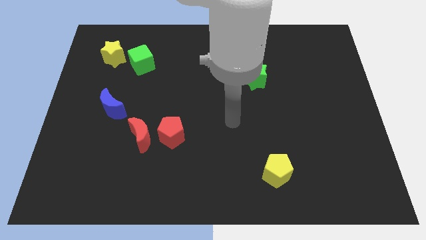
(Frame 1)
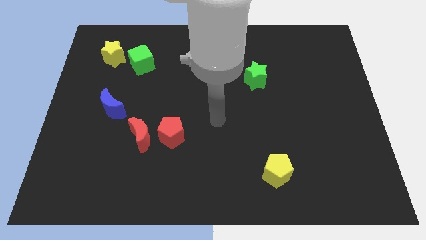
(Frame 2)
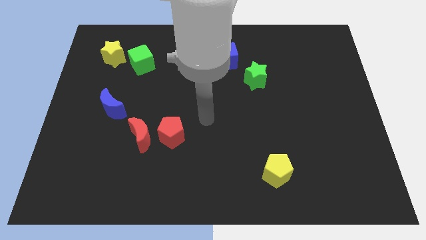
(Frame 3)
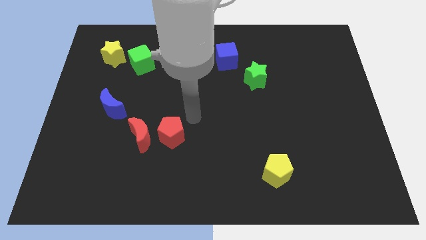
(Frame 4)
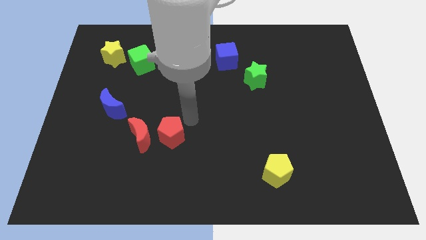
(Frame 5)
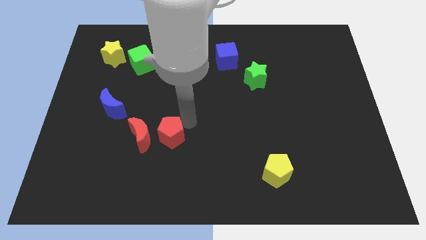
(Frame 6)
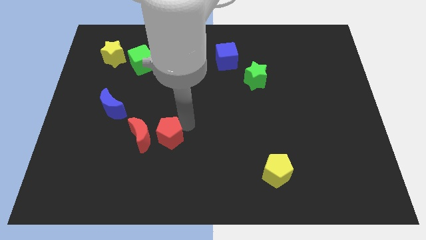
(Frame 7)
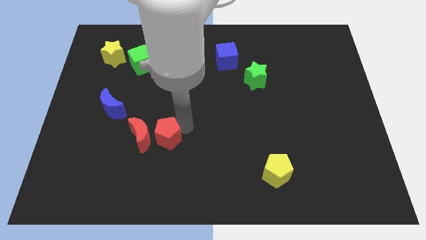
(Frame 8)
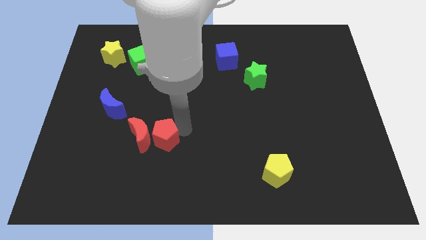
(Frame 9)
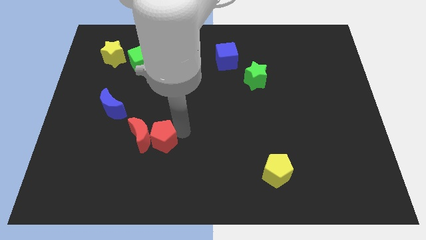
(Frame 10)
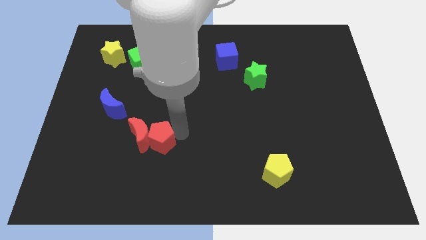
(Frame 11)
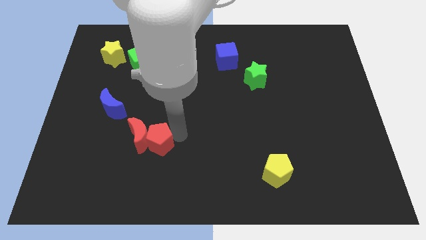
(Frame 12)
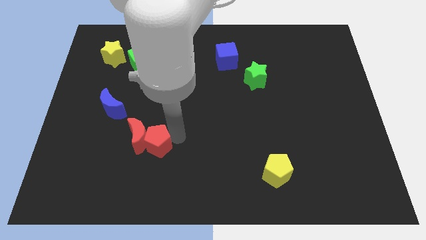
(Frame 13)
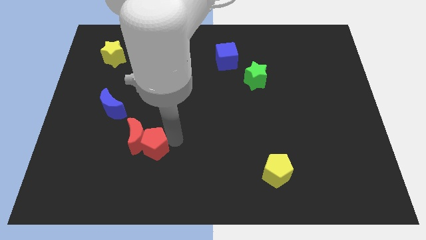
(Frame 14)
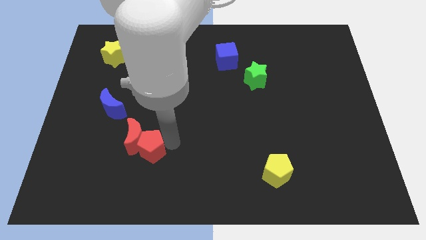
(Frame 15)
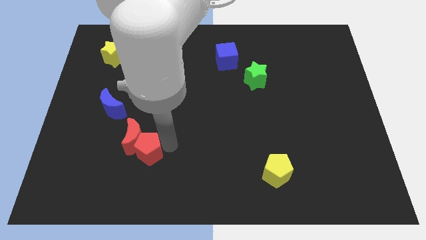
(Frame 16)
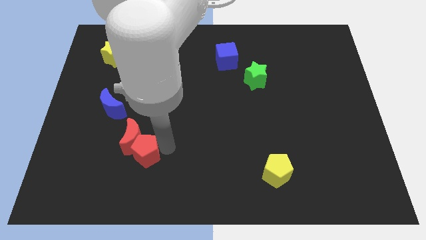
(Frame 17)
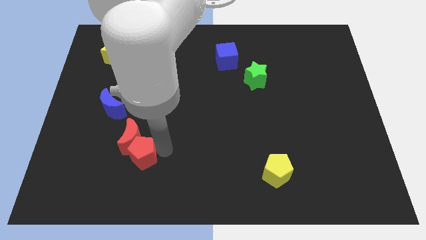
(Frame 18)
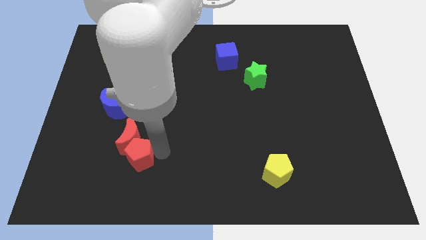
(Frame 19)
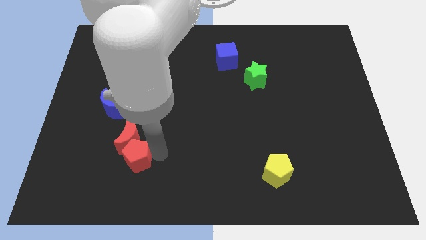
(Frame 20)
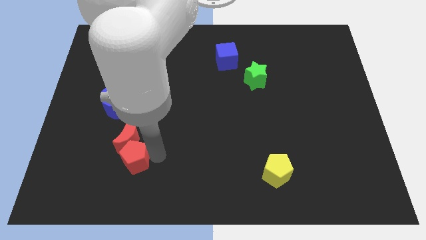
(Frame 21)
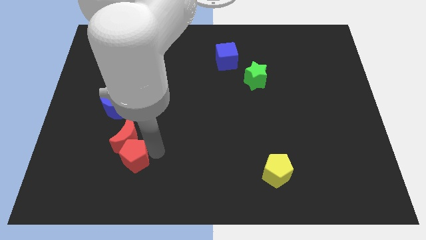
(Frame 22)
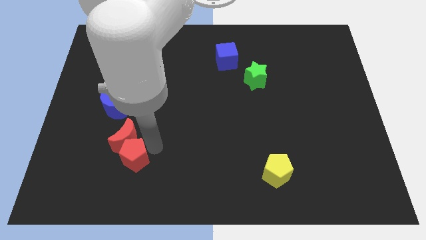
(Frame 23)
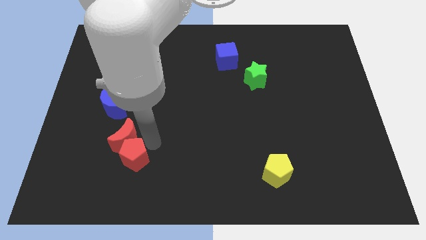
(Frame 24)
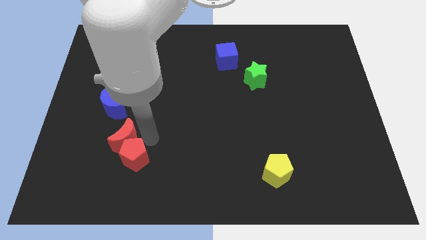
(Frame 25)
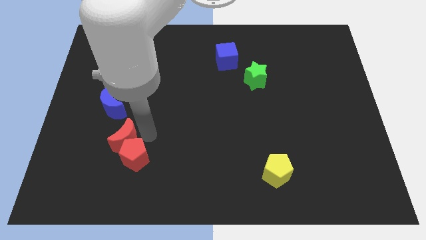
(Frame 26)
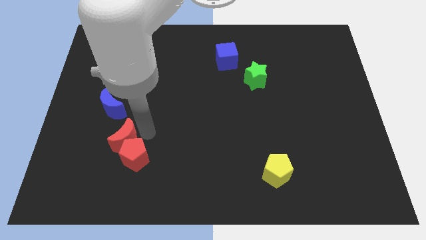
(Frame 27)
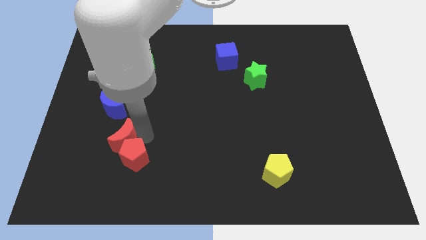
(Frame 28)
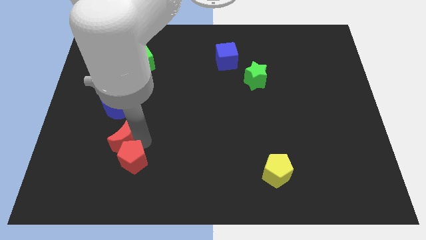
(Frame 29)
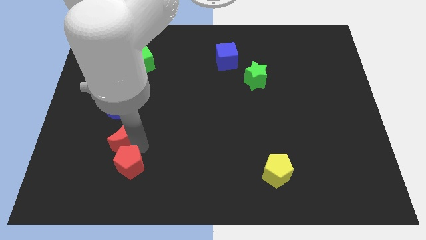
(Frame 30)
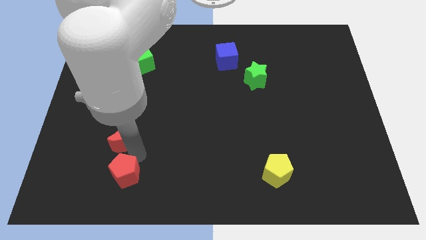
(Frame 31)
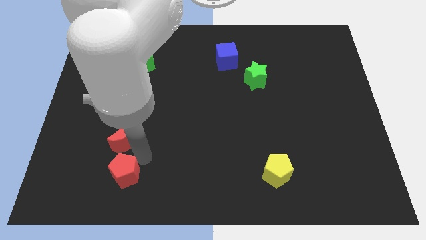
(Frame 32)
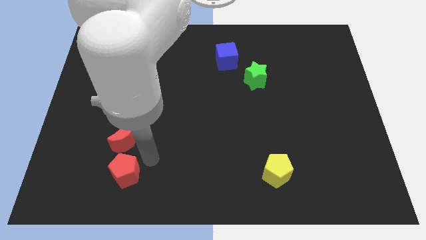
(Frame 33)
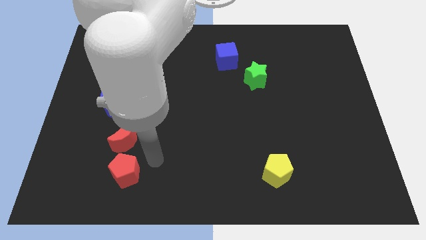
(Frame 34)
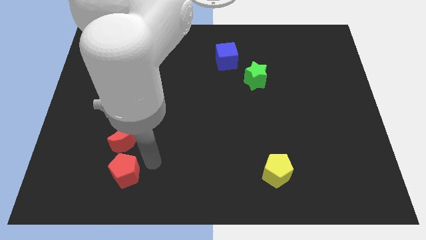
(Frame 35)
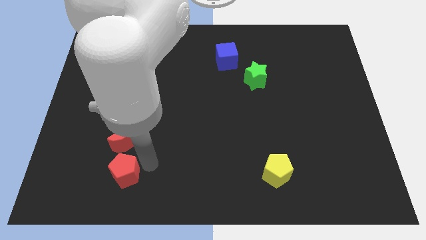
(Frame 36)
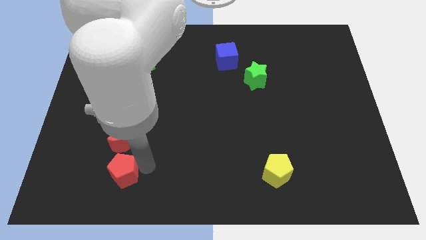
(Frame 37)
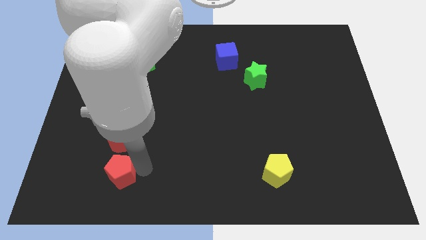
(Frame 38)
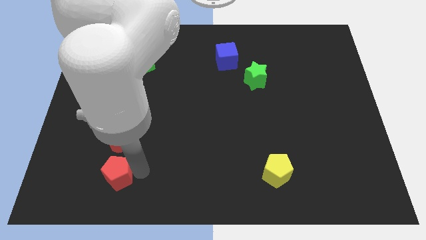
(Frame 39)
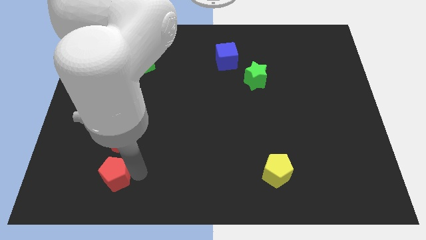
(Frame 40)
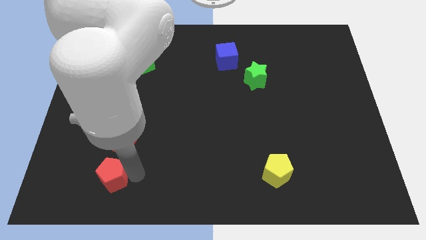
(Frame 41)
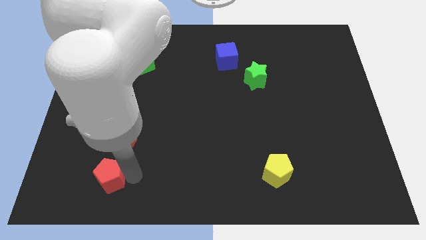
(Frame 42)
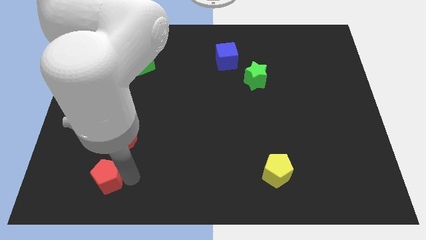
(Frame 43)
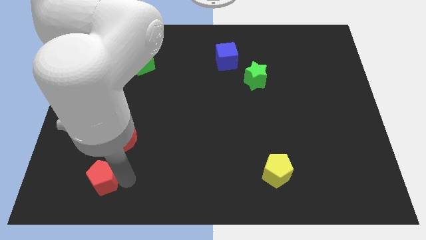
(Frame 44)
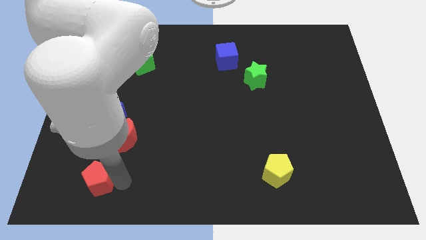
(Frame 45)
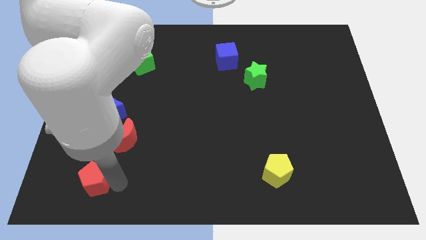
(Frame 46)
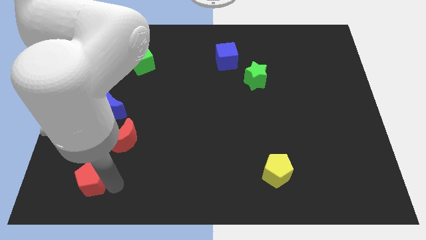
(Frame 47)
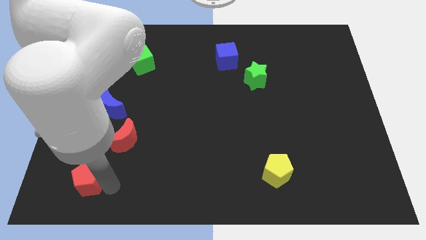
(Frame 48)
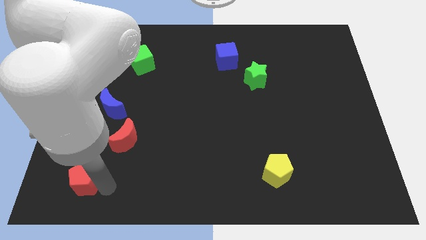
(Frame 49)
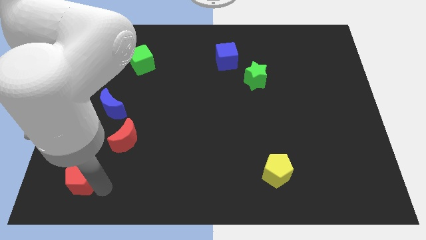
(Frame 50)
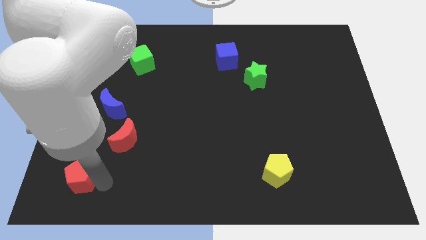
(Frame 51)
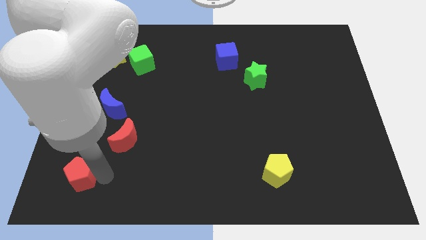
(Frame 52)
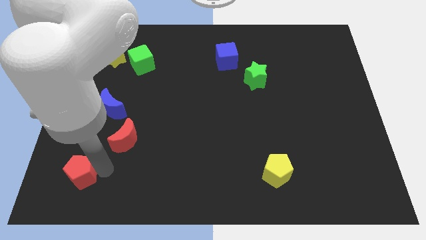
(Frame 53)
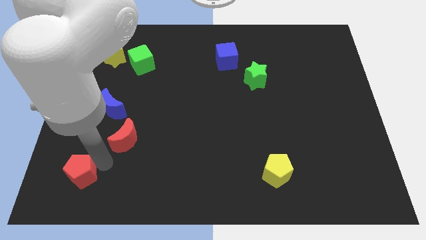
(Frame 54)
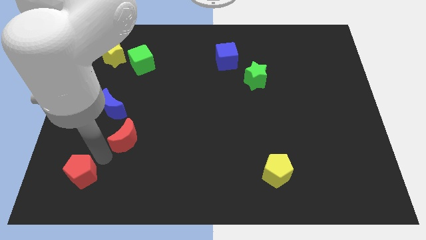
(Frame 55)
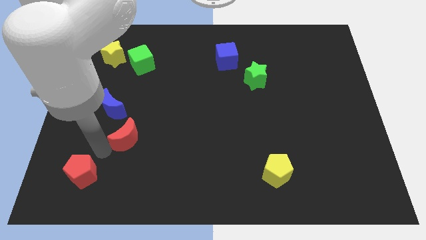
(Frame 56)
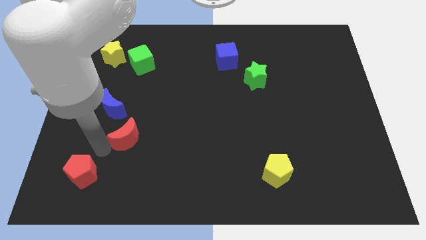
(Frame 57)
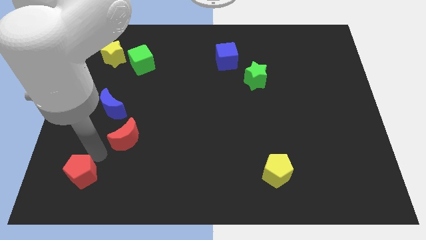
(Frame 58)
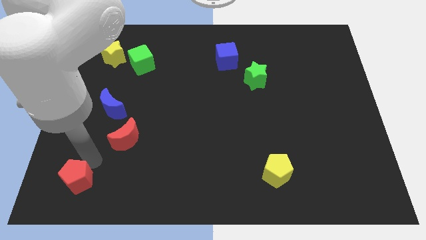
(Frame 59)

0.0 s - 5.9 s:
push the red pentagon to the bottom left corner

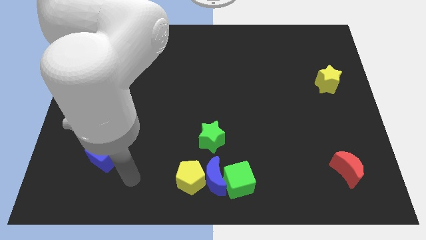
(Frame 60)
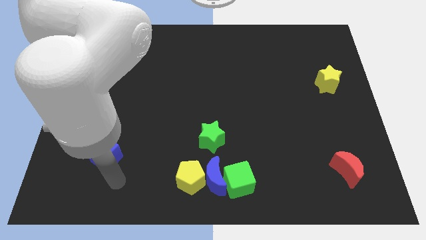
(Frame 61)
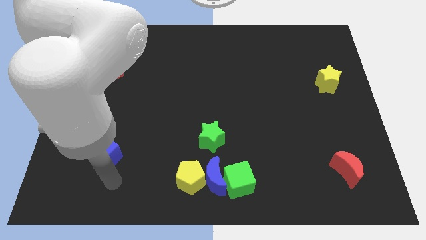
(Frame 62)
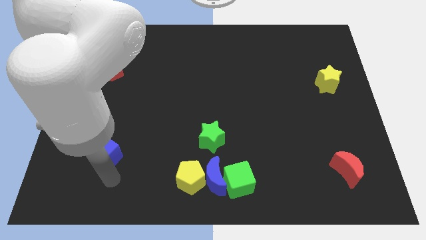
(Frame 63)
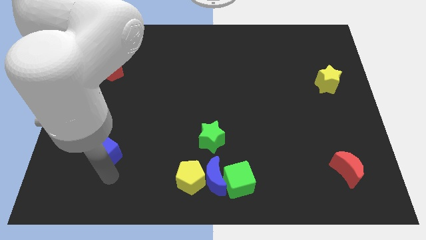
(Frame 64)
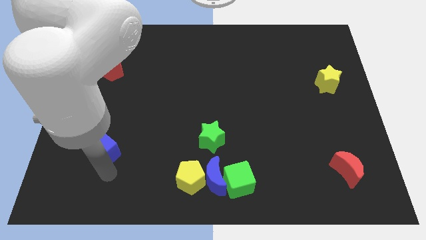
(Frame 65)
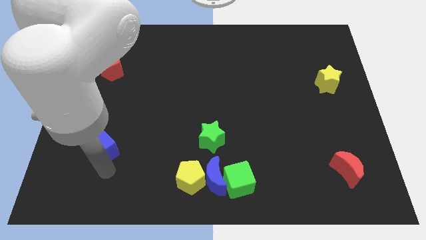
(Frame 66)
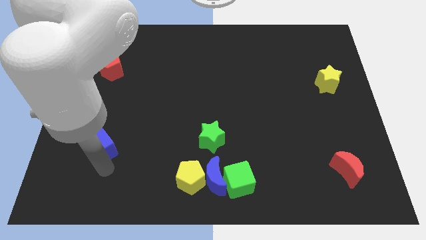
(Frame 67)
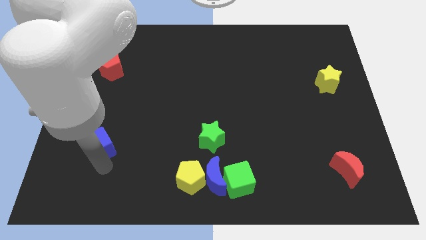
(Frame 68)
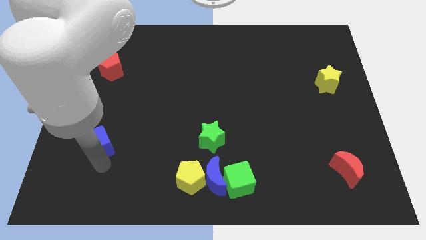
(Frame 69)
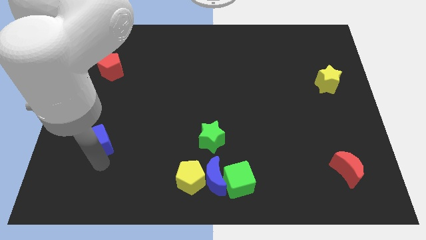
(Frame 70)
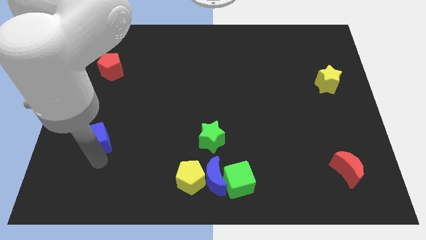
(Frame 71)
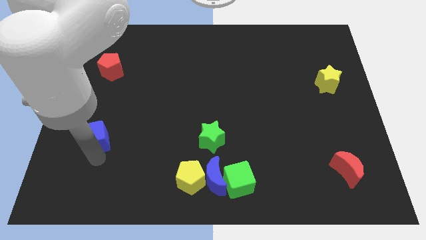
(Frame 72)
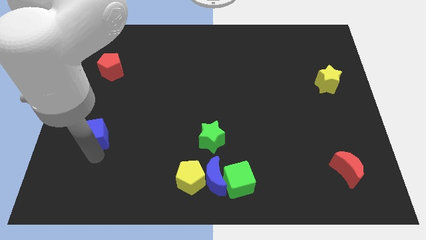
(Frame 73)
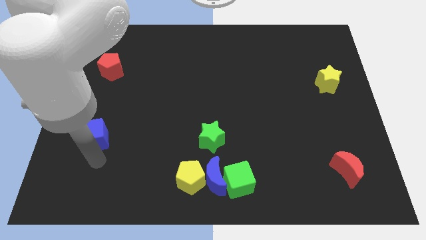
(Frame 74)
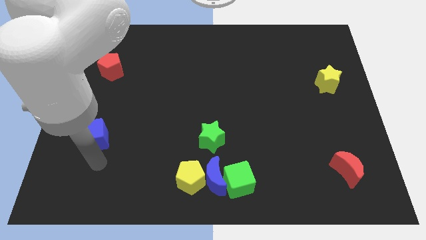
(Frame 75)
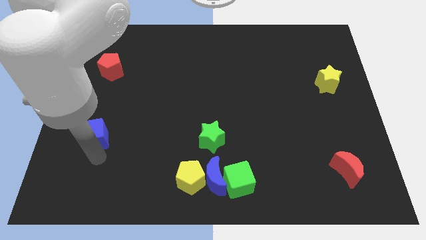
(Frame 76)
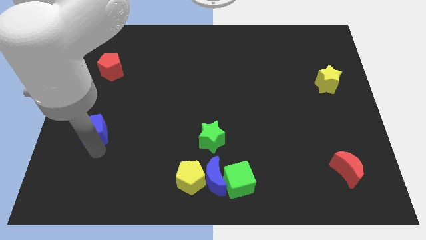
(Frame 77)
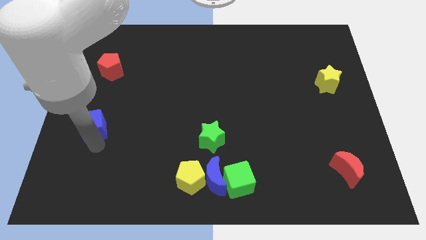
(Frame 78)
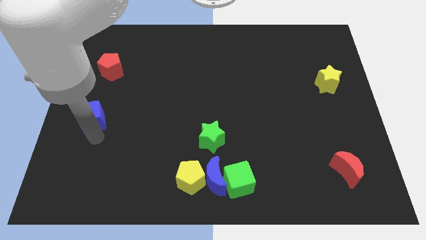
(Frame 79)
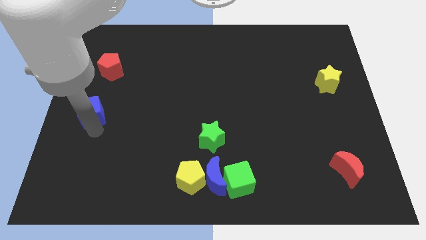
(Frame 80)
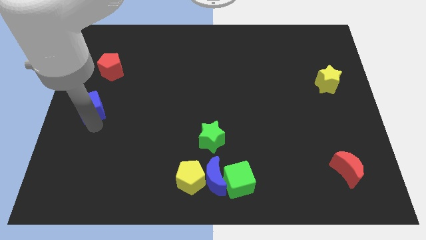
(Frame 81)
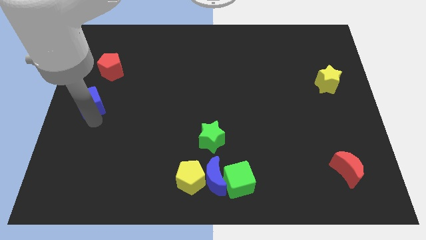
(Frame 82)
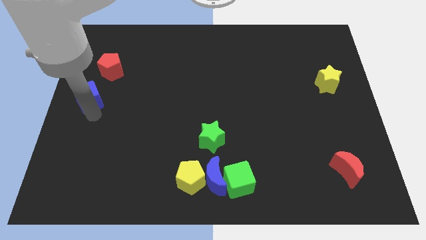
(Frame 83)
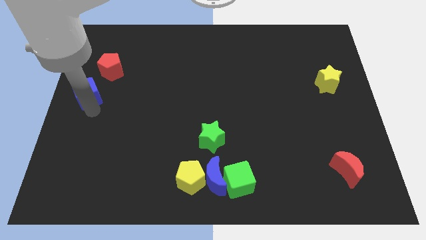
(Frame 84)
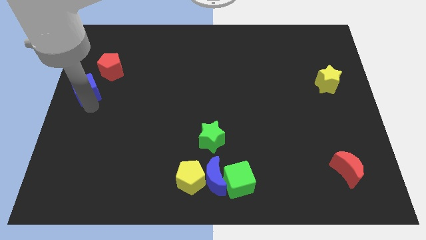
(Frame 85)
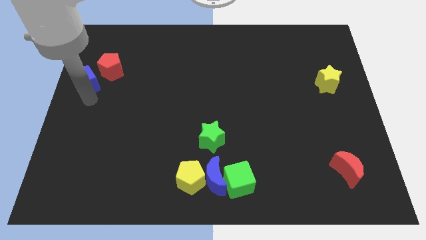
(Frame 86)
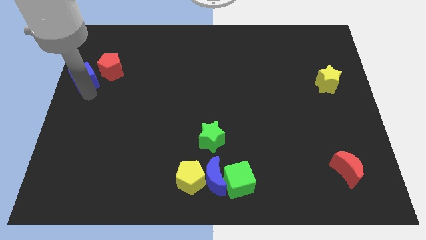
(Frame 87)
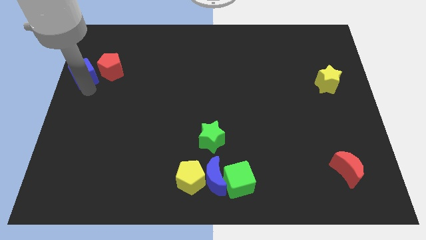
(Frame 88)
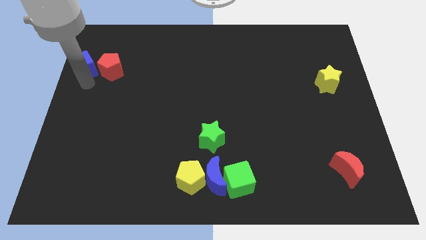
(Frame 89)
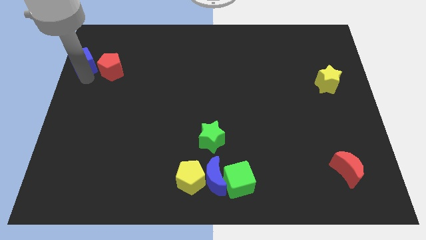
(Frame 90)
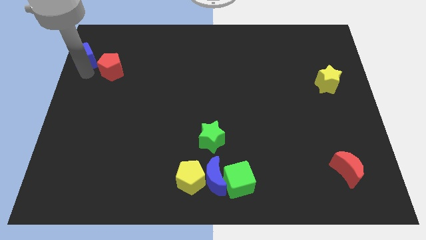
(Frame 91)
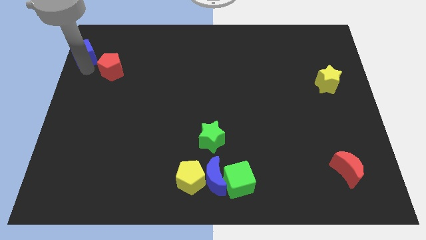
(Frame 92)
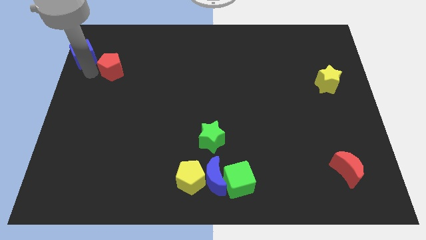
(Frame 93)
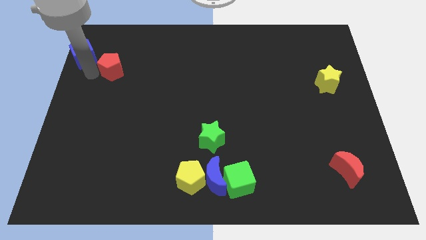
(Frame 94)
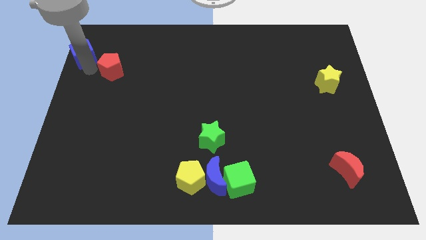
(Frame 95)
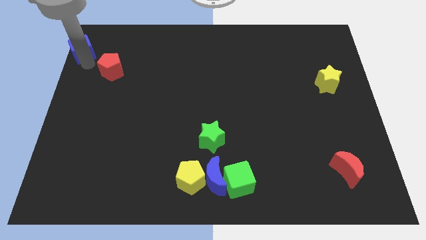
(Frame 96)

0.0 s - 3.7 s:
push the blue cube to the top left of the board
